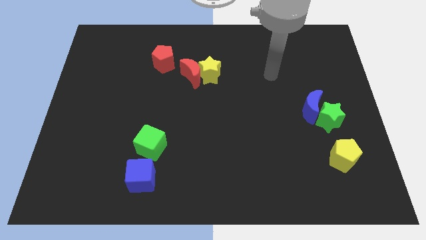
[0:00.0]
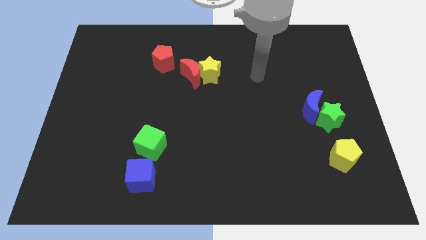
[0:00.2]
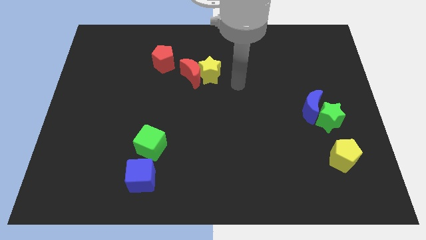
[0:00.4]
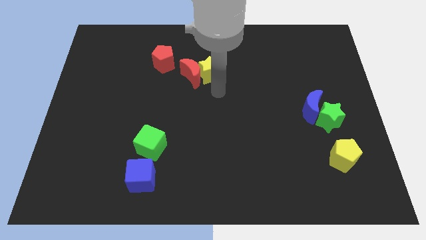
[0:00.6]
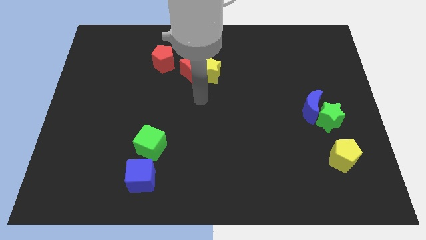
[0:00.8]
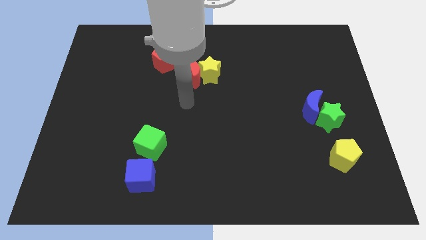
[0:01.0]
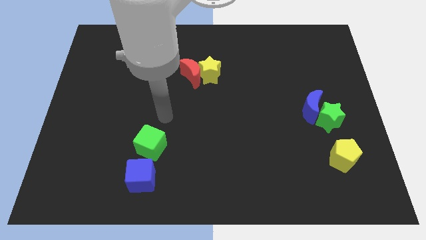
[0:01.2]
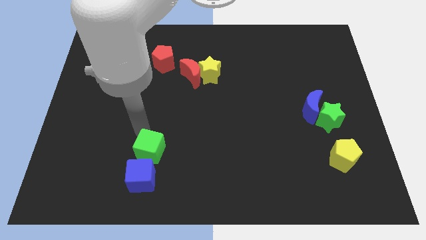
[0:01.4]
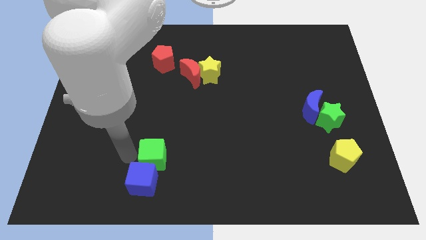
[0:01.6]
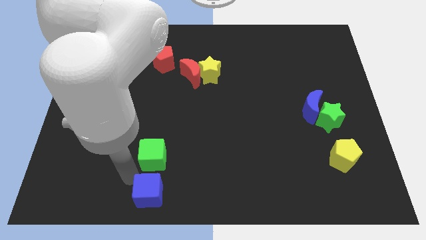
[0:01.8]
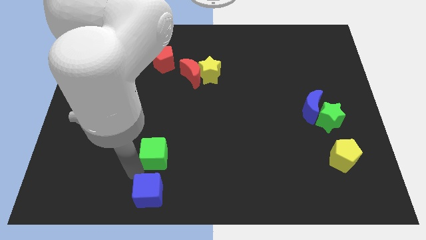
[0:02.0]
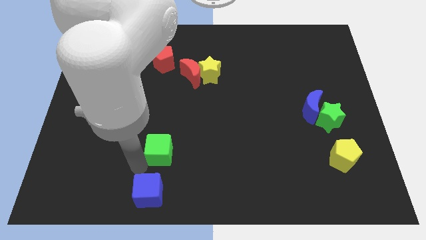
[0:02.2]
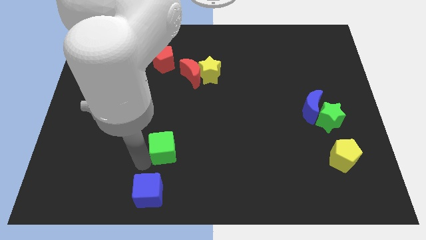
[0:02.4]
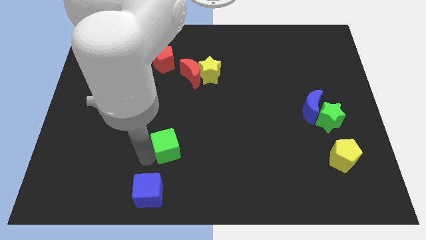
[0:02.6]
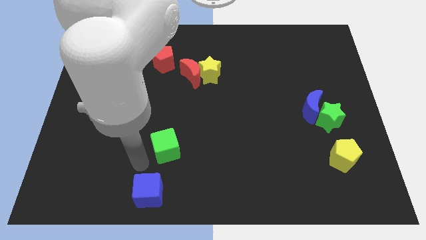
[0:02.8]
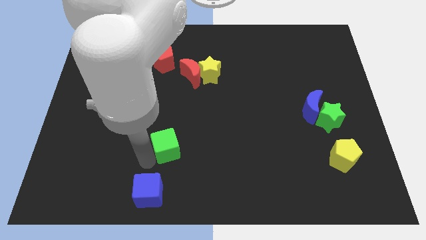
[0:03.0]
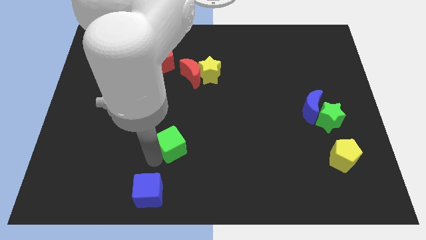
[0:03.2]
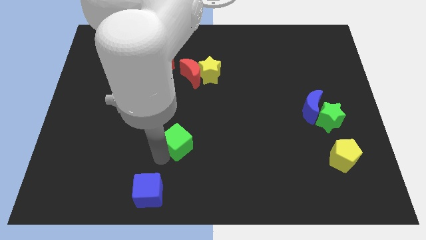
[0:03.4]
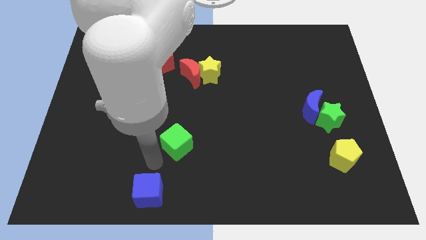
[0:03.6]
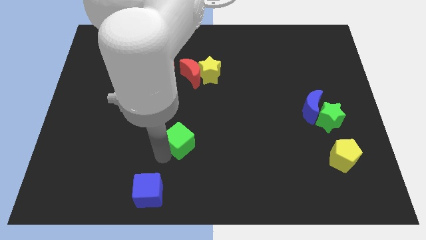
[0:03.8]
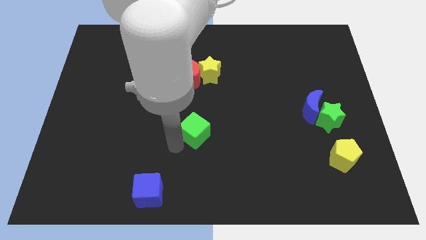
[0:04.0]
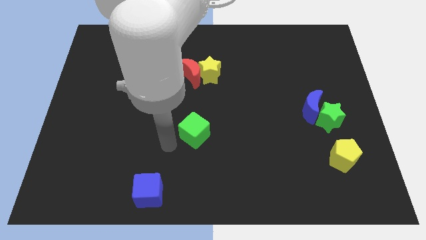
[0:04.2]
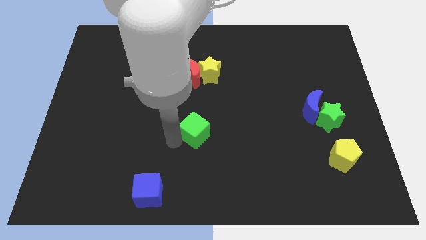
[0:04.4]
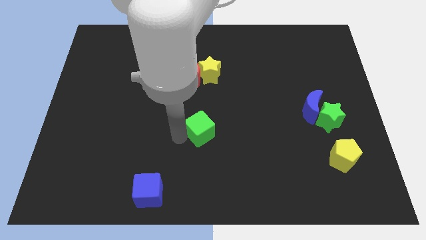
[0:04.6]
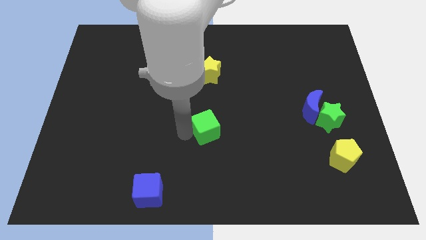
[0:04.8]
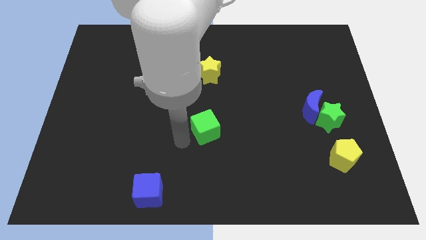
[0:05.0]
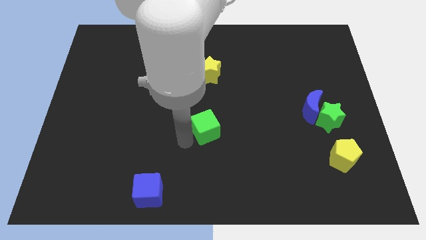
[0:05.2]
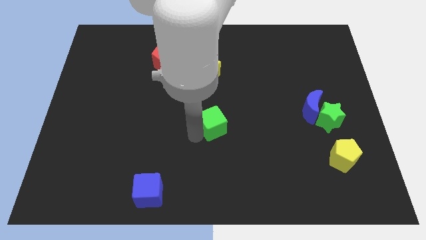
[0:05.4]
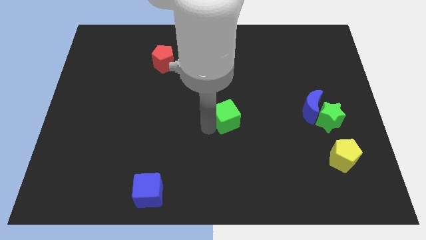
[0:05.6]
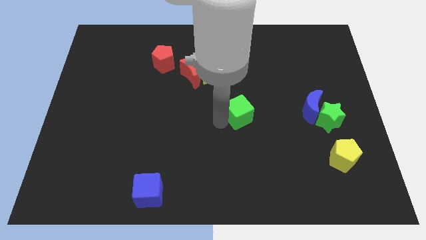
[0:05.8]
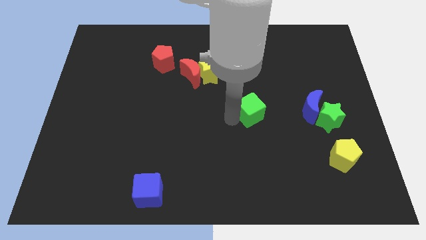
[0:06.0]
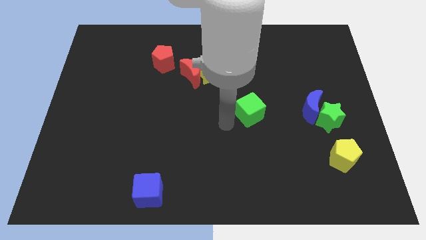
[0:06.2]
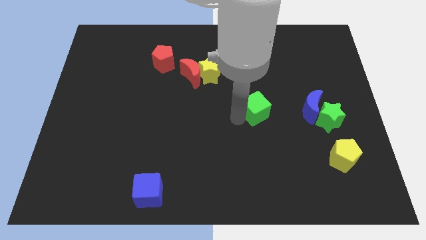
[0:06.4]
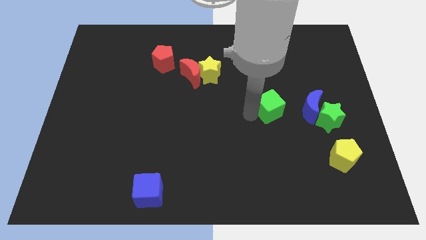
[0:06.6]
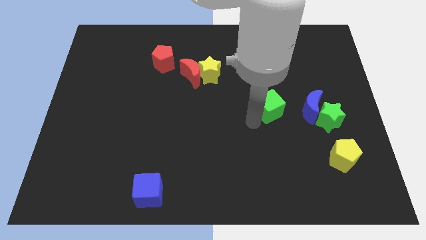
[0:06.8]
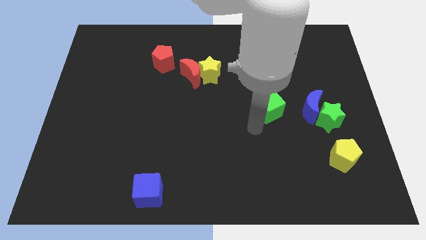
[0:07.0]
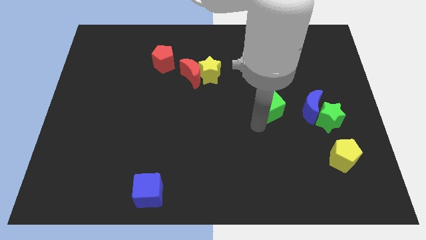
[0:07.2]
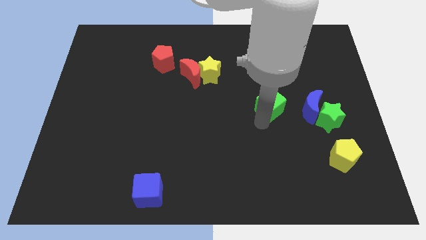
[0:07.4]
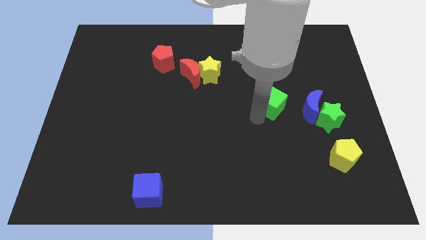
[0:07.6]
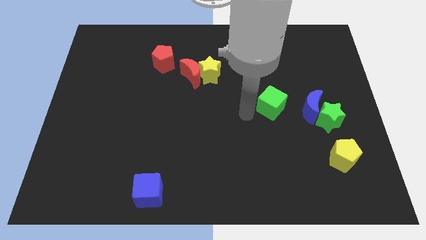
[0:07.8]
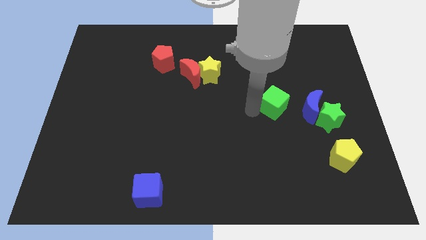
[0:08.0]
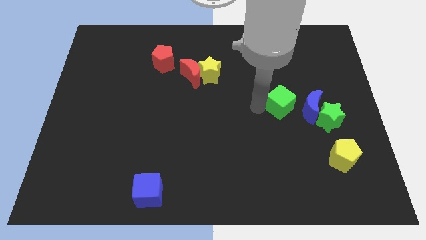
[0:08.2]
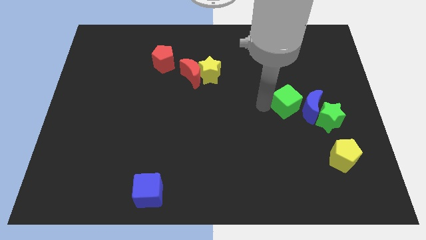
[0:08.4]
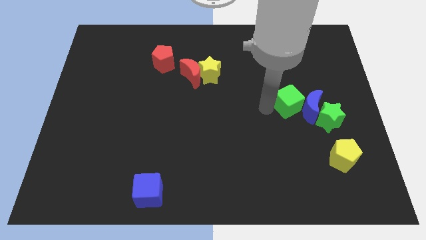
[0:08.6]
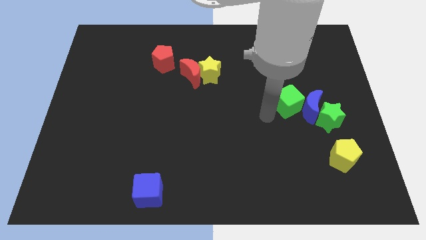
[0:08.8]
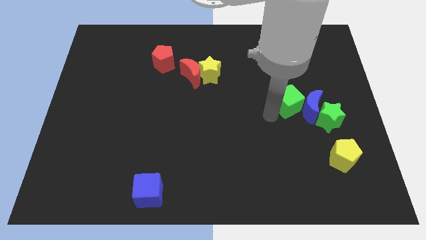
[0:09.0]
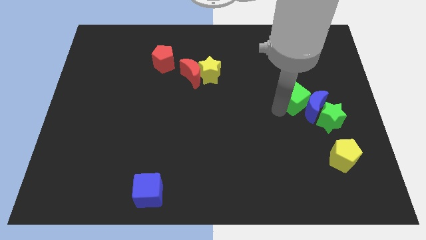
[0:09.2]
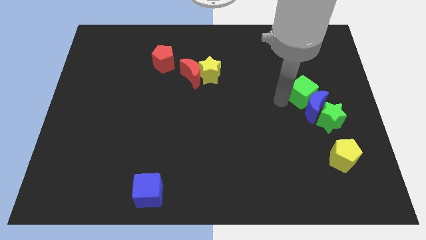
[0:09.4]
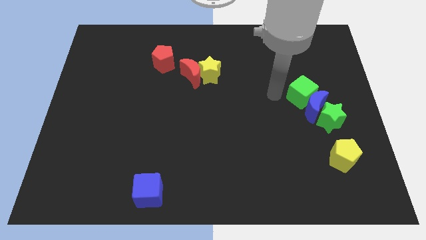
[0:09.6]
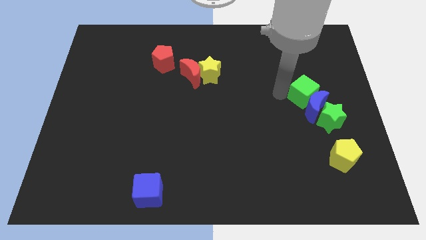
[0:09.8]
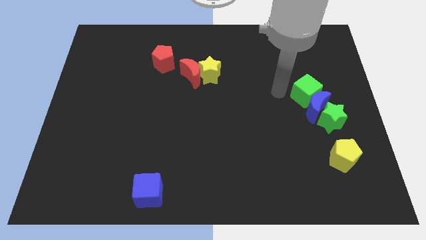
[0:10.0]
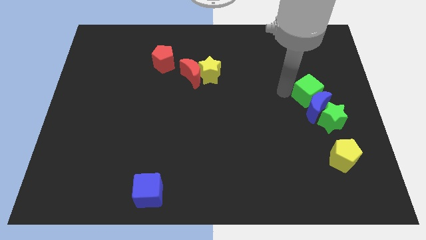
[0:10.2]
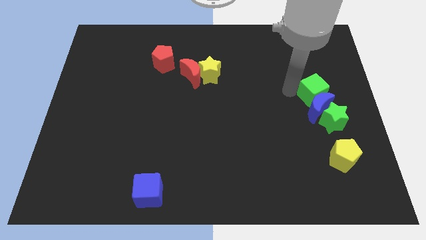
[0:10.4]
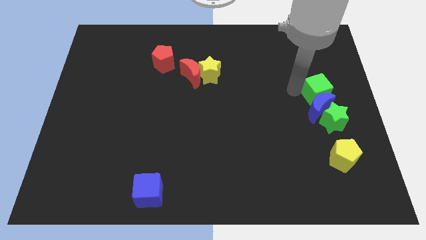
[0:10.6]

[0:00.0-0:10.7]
slide the green cube to the right side

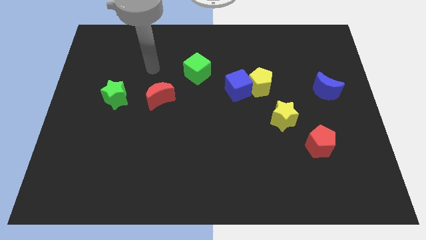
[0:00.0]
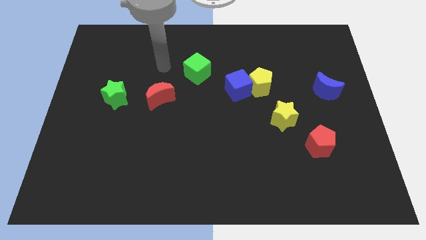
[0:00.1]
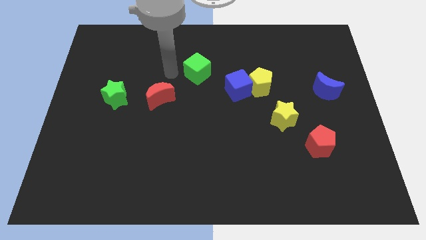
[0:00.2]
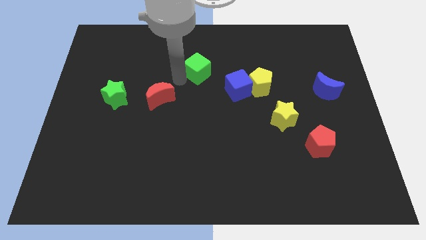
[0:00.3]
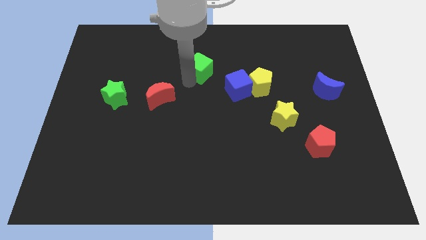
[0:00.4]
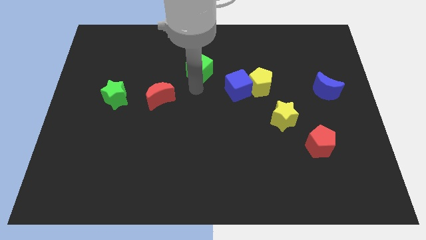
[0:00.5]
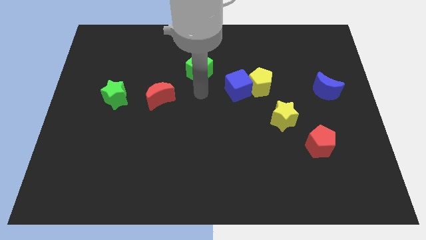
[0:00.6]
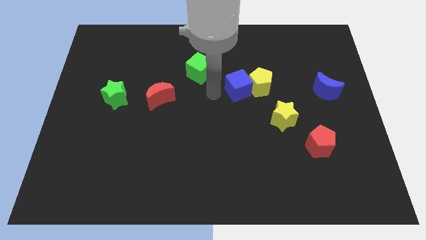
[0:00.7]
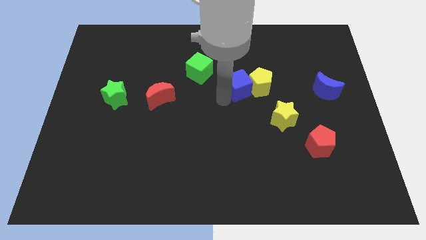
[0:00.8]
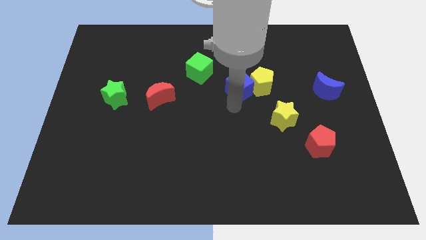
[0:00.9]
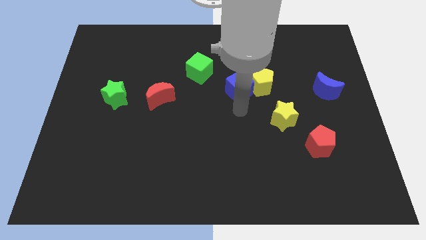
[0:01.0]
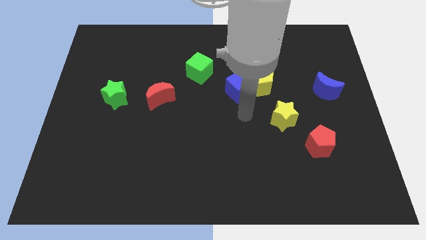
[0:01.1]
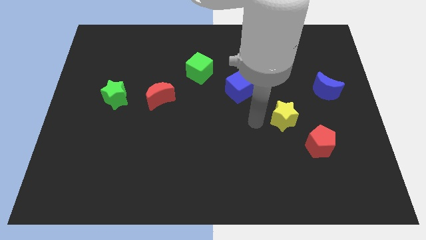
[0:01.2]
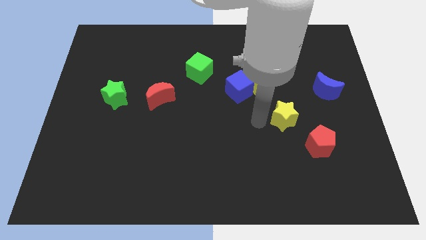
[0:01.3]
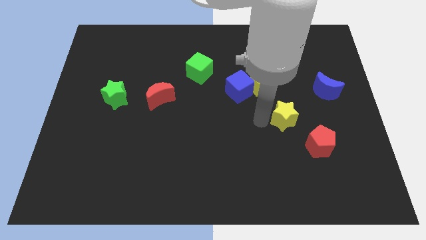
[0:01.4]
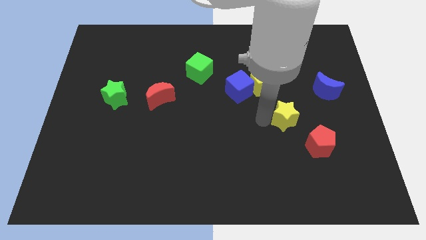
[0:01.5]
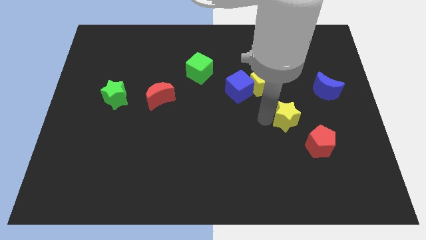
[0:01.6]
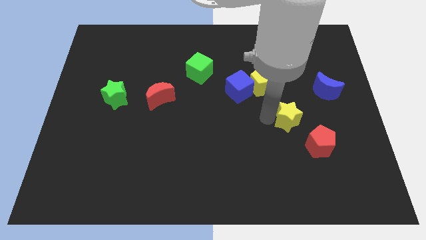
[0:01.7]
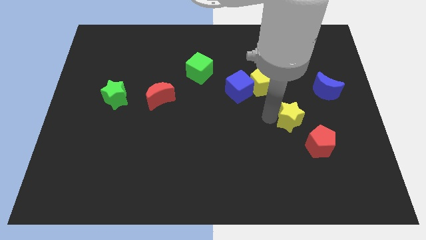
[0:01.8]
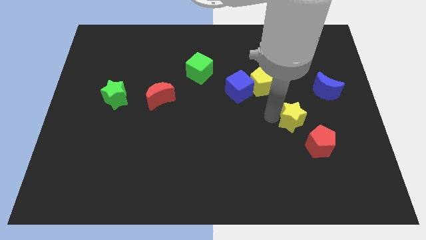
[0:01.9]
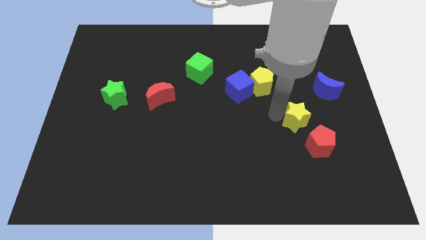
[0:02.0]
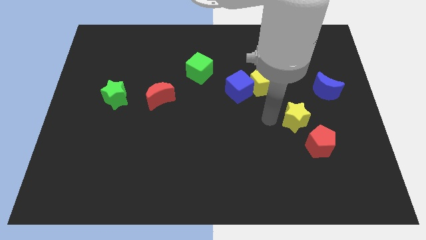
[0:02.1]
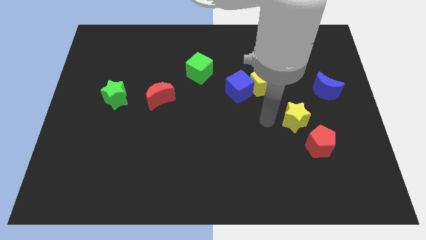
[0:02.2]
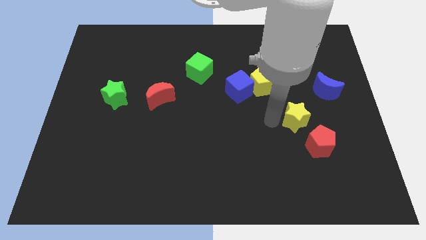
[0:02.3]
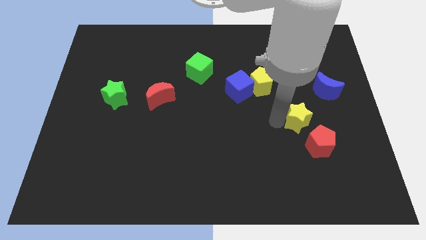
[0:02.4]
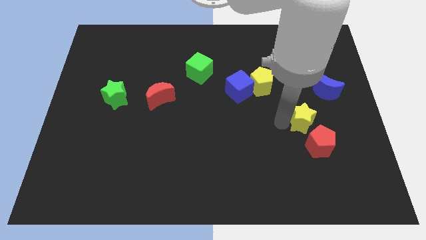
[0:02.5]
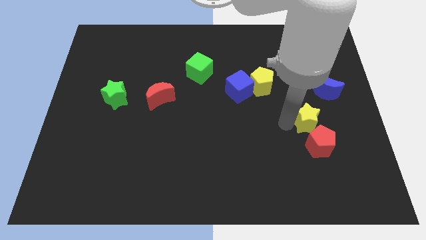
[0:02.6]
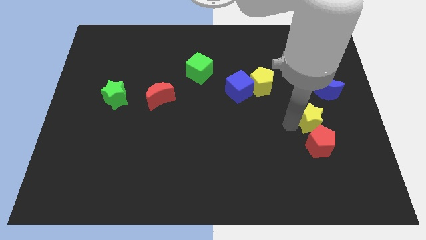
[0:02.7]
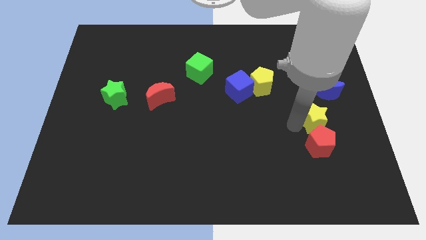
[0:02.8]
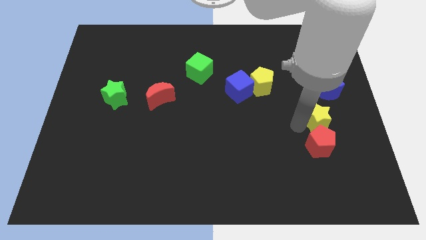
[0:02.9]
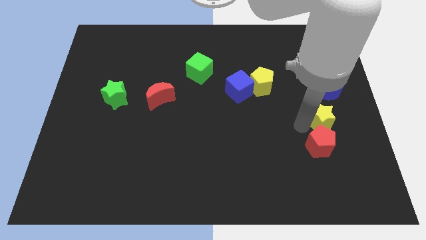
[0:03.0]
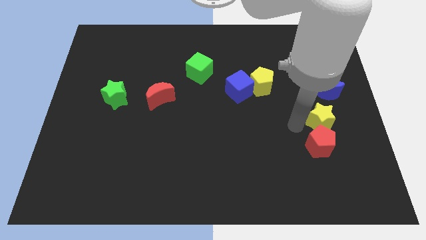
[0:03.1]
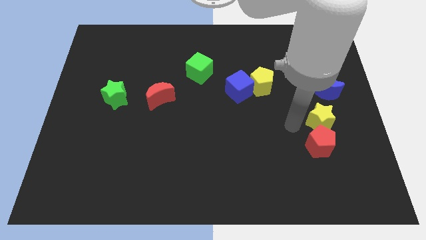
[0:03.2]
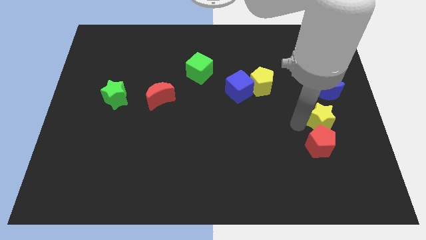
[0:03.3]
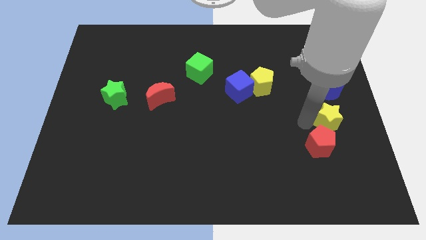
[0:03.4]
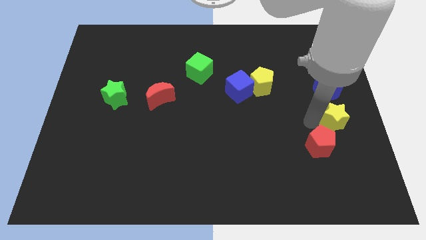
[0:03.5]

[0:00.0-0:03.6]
push the yellow star to the right side
